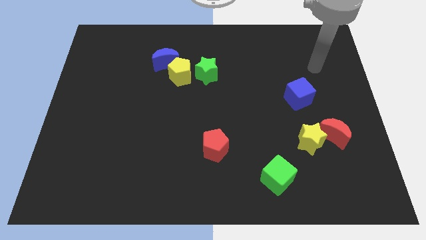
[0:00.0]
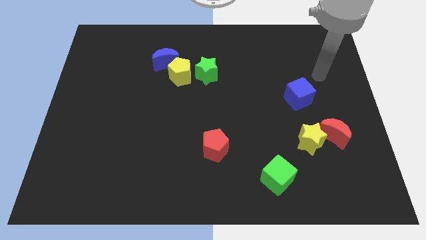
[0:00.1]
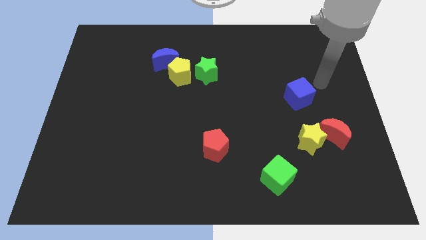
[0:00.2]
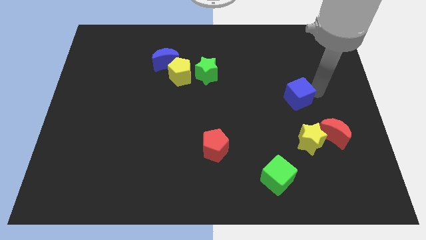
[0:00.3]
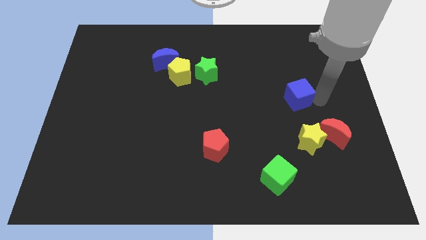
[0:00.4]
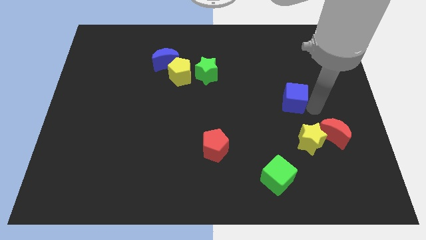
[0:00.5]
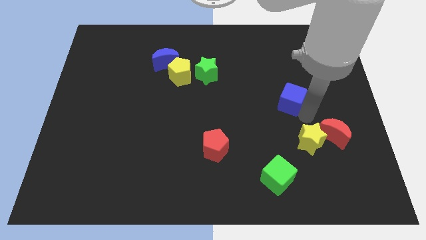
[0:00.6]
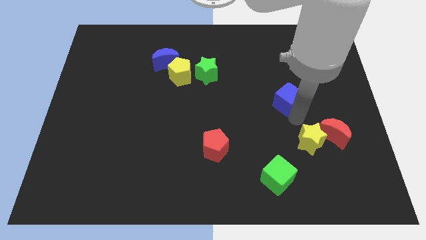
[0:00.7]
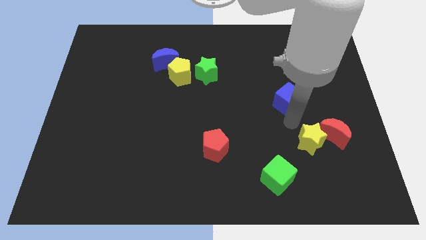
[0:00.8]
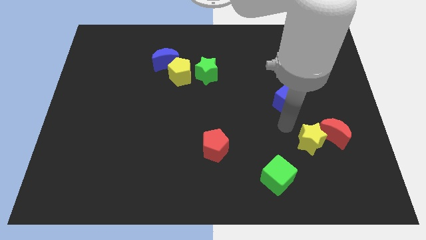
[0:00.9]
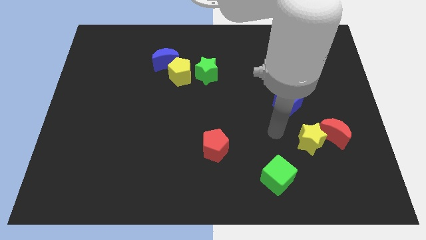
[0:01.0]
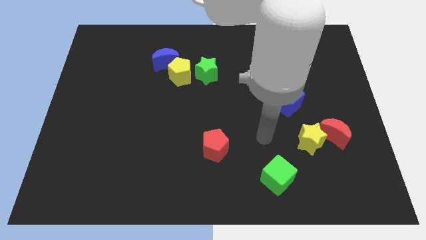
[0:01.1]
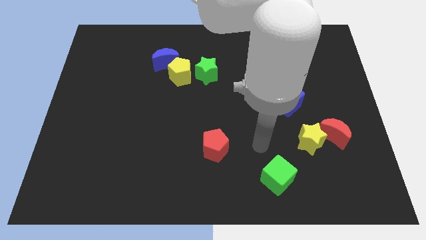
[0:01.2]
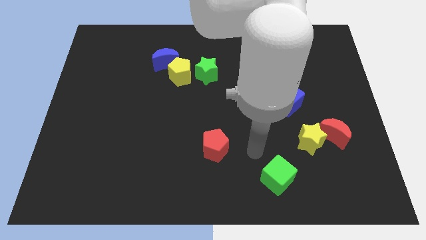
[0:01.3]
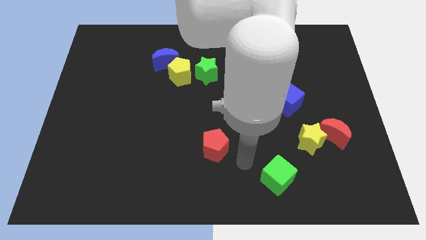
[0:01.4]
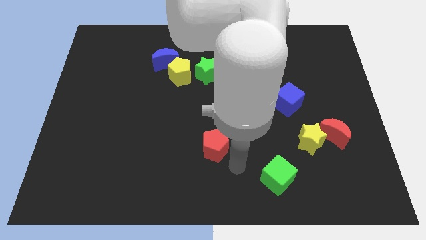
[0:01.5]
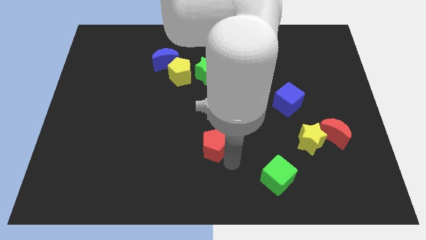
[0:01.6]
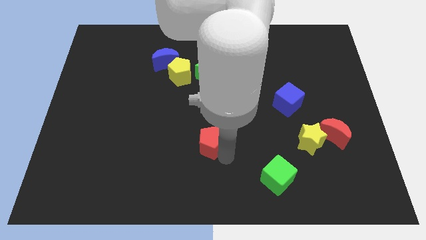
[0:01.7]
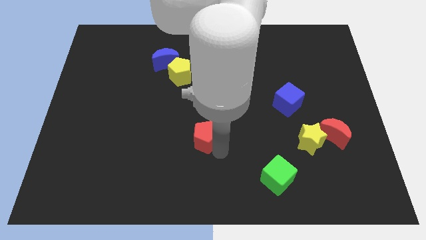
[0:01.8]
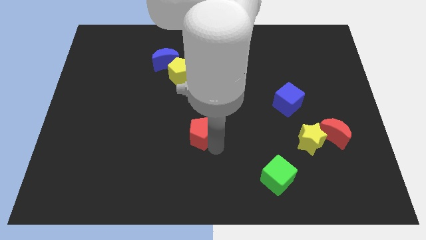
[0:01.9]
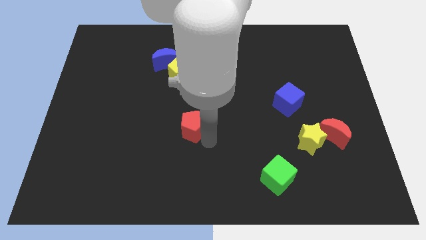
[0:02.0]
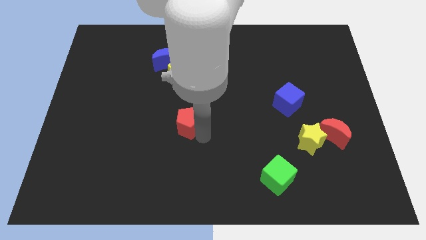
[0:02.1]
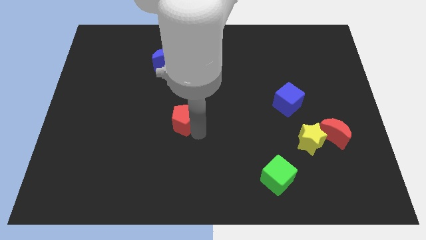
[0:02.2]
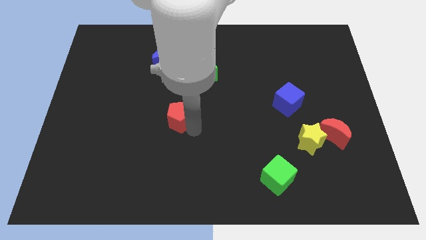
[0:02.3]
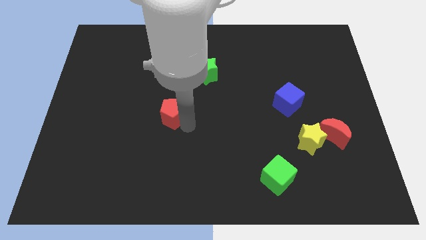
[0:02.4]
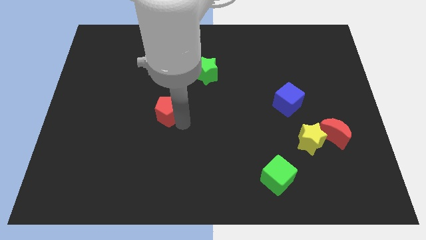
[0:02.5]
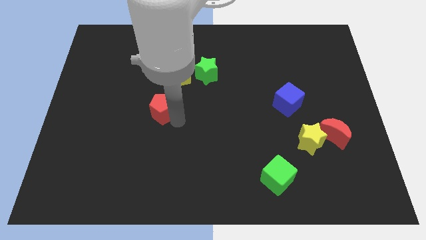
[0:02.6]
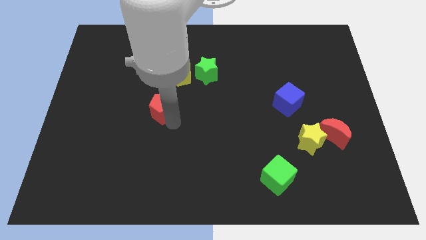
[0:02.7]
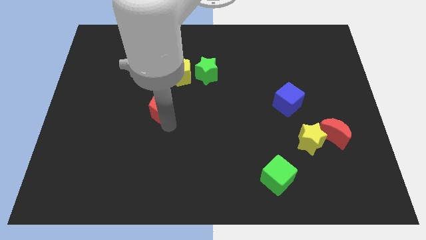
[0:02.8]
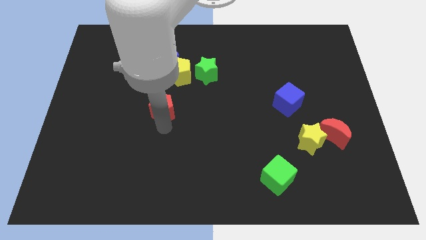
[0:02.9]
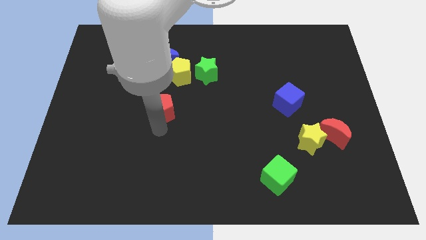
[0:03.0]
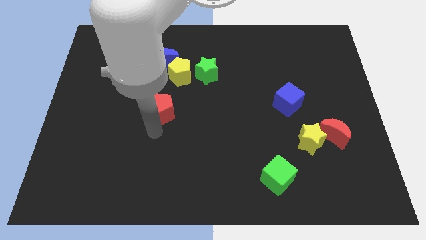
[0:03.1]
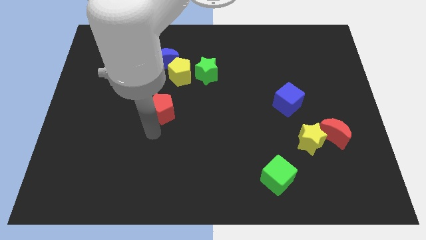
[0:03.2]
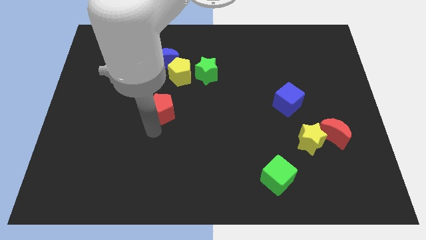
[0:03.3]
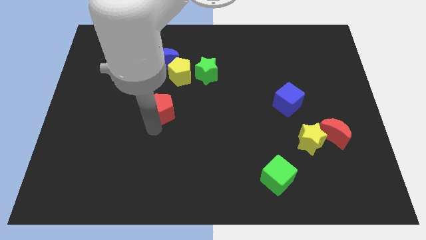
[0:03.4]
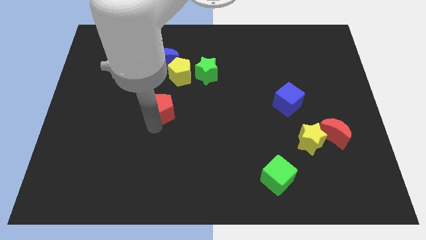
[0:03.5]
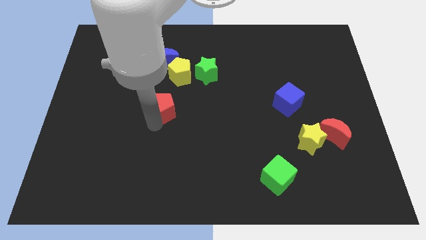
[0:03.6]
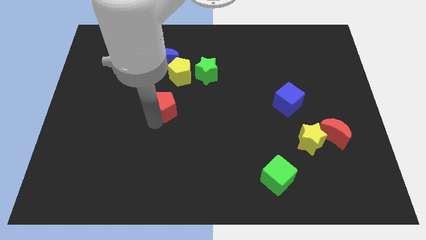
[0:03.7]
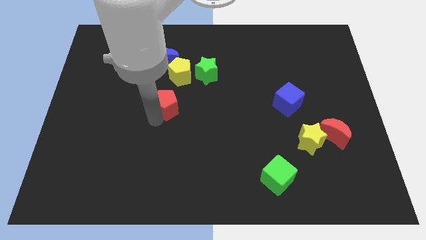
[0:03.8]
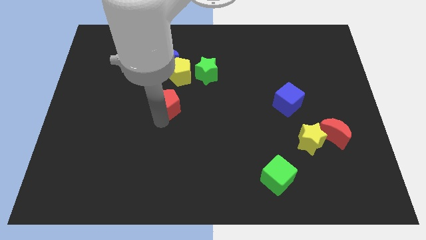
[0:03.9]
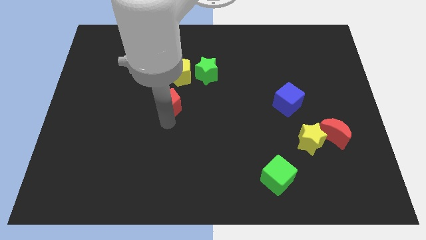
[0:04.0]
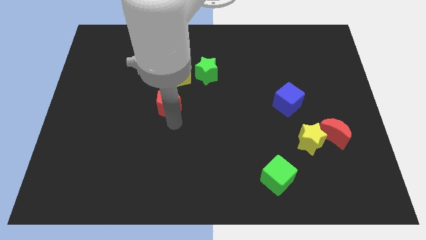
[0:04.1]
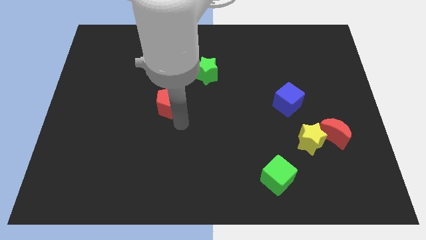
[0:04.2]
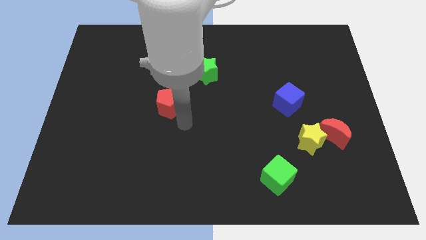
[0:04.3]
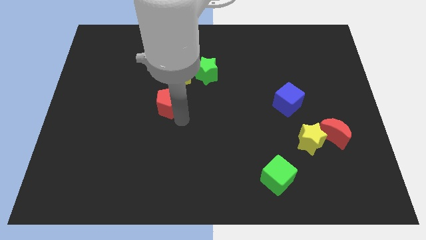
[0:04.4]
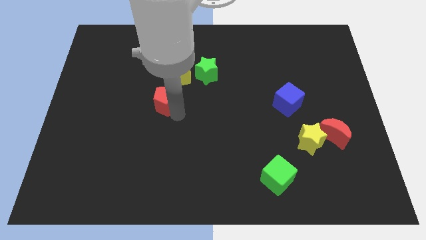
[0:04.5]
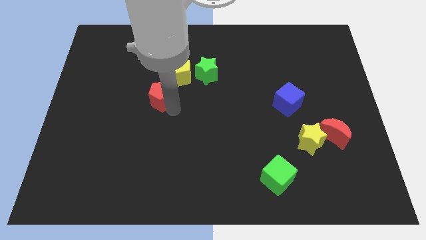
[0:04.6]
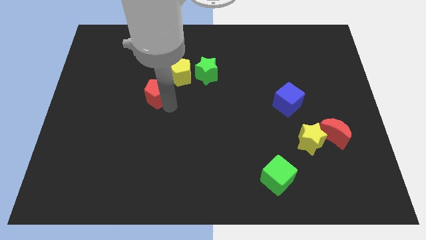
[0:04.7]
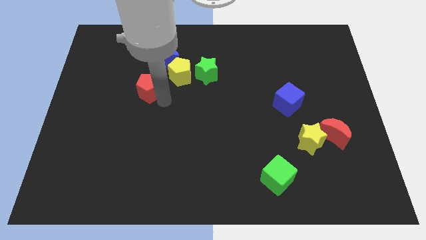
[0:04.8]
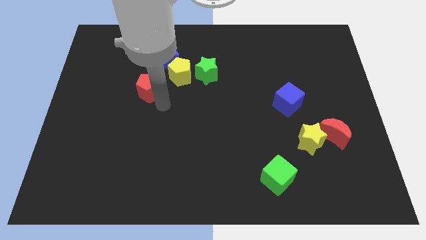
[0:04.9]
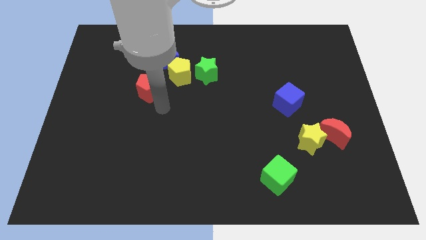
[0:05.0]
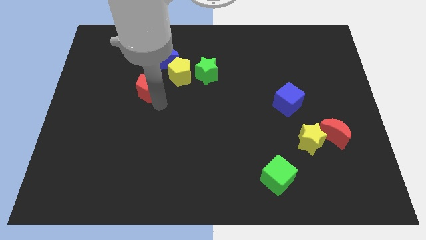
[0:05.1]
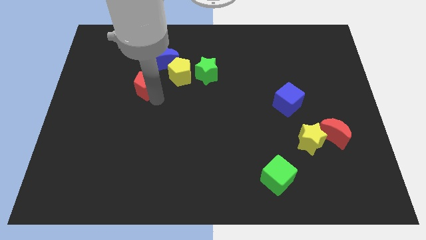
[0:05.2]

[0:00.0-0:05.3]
push the red pentagon to the left side of the yellow pentagon

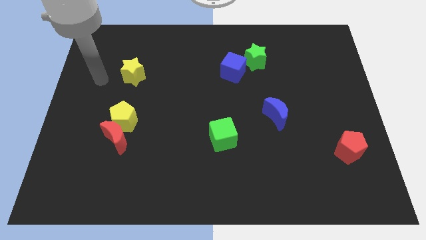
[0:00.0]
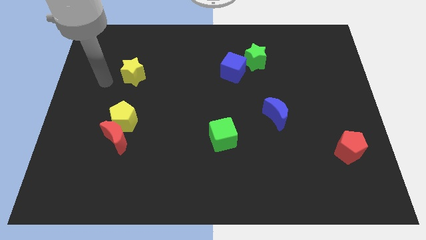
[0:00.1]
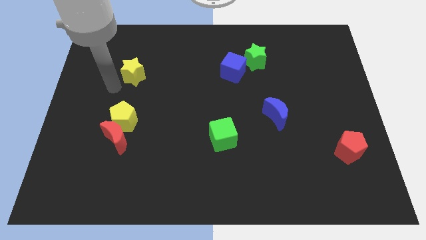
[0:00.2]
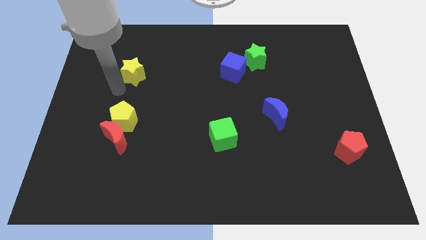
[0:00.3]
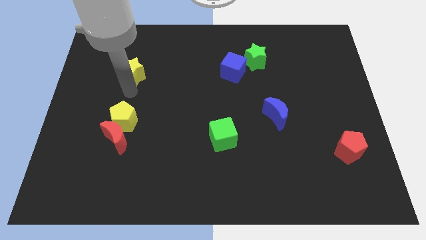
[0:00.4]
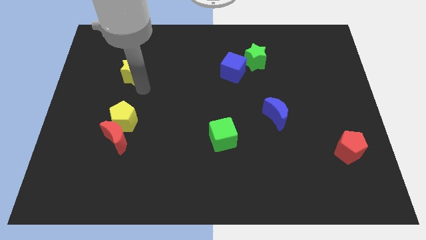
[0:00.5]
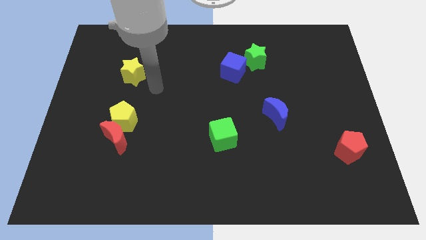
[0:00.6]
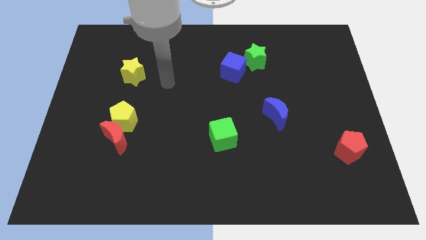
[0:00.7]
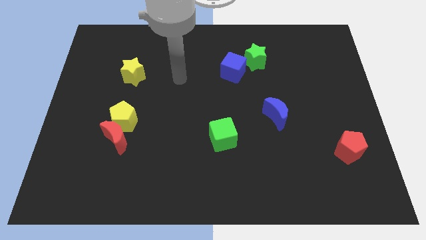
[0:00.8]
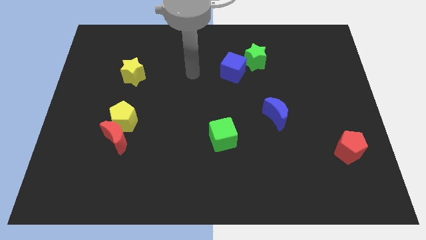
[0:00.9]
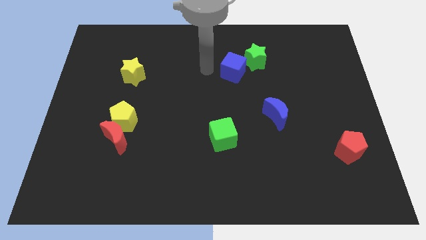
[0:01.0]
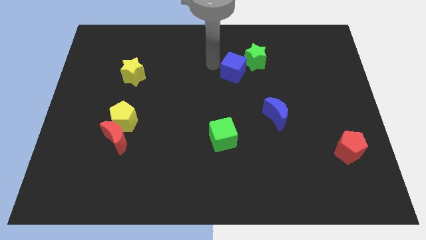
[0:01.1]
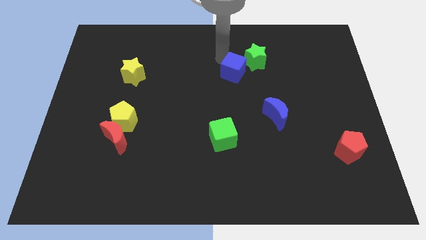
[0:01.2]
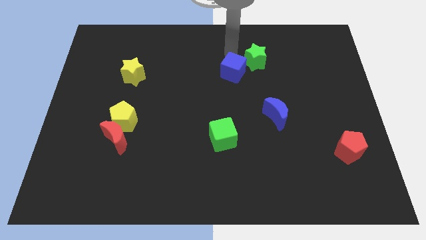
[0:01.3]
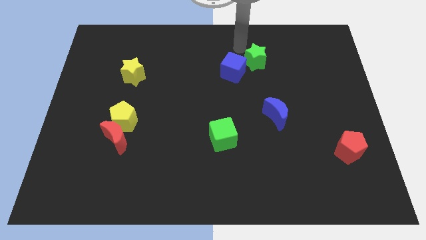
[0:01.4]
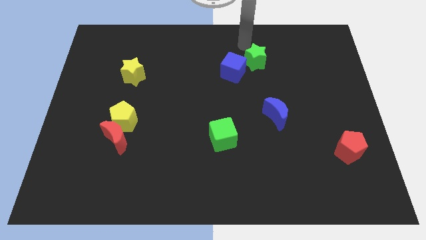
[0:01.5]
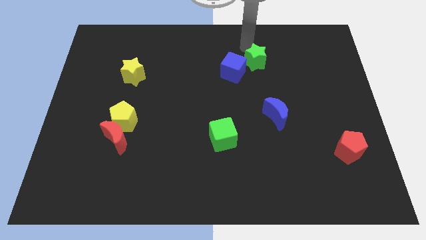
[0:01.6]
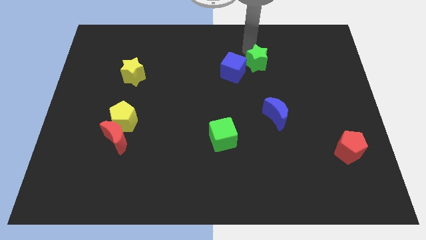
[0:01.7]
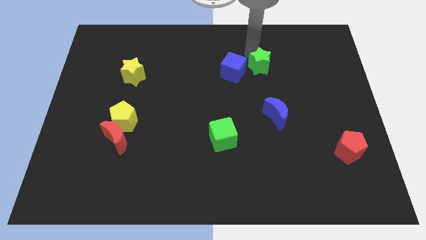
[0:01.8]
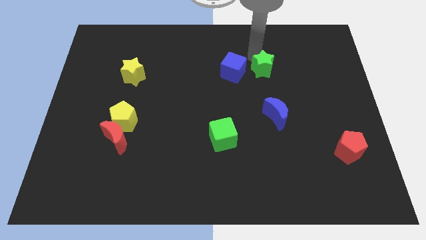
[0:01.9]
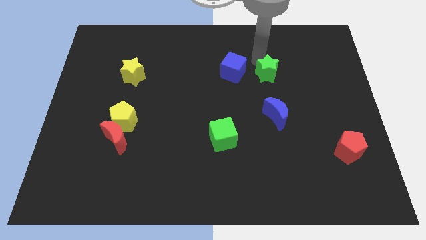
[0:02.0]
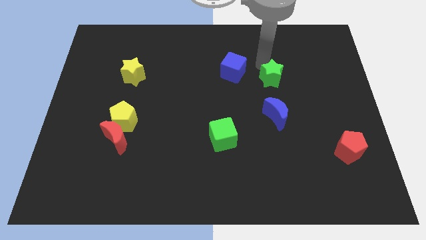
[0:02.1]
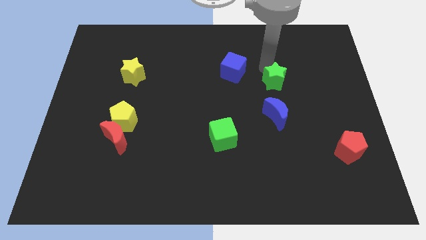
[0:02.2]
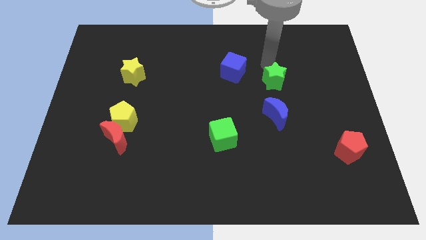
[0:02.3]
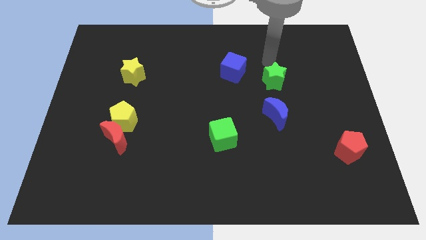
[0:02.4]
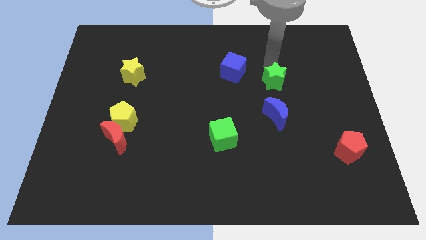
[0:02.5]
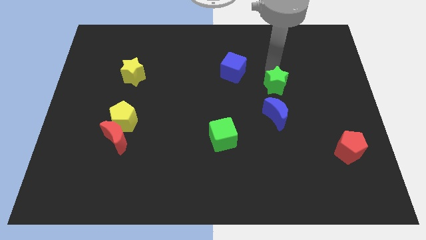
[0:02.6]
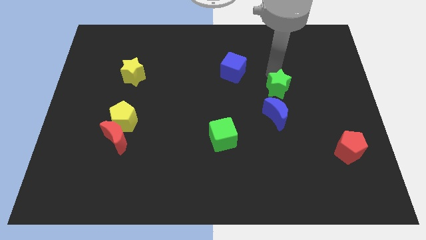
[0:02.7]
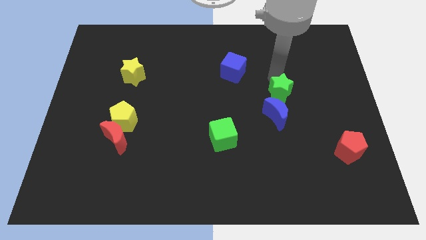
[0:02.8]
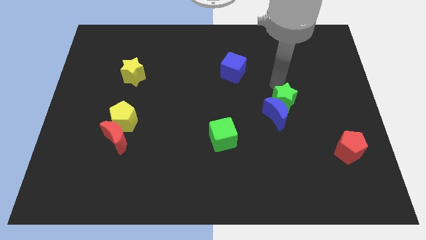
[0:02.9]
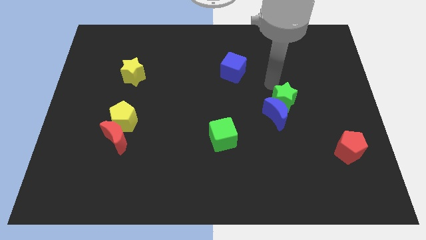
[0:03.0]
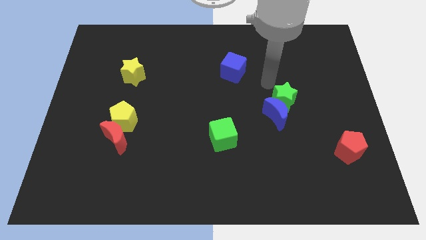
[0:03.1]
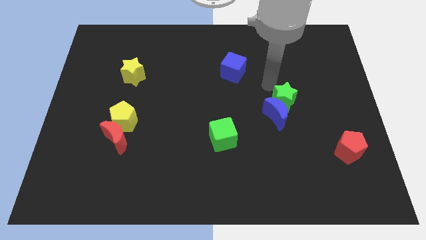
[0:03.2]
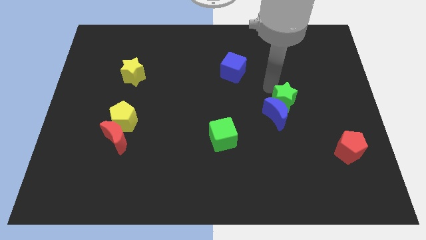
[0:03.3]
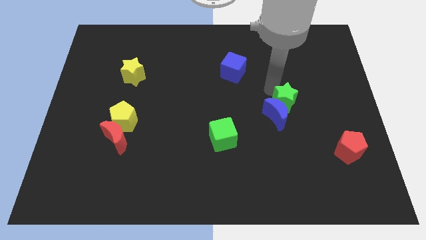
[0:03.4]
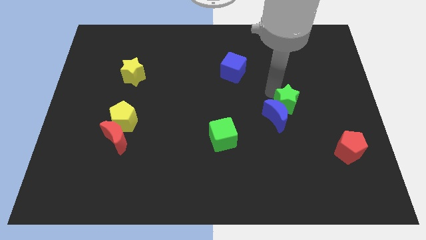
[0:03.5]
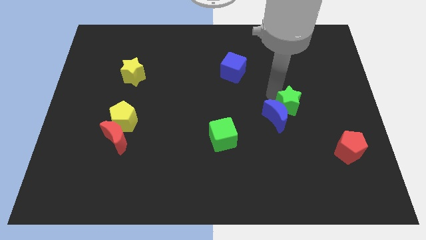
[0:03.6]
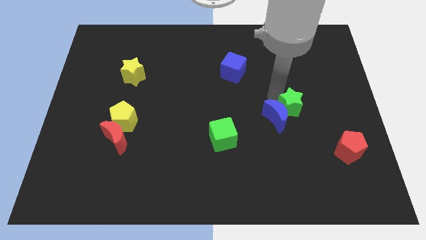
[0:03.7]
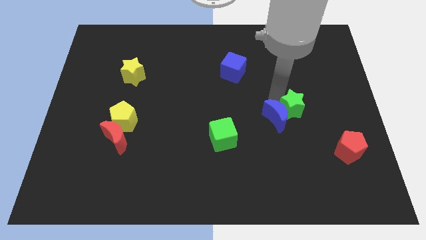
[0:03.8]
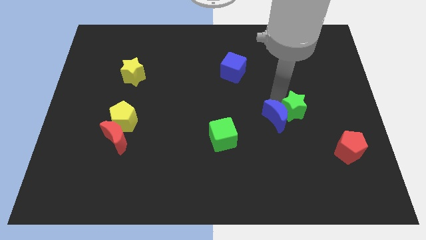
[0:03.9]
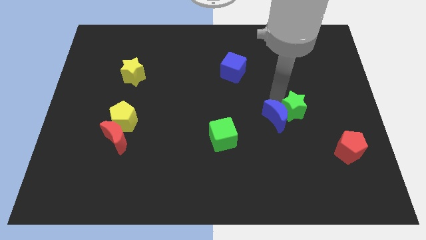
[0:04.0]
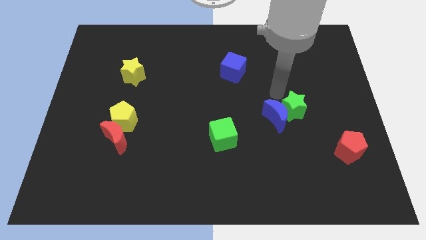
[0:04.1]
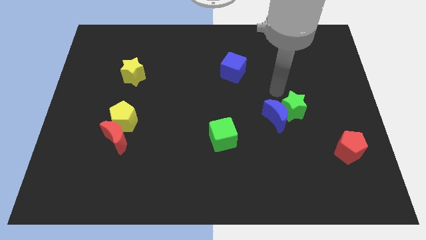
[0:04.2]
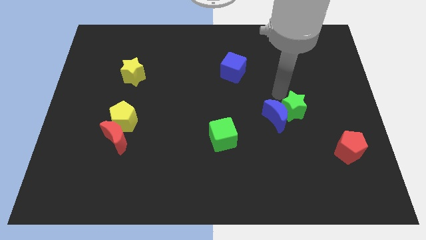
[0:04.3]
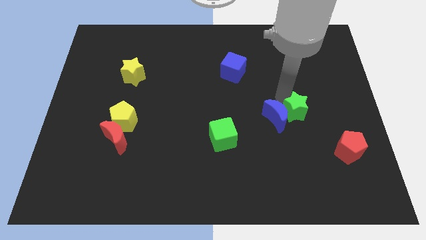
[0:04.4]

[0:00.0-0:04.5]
put the green star diagonally down and to the right of the blue moon
